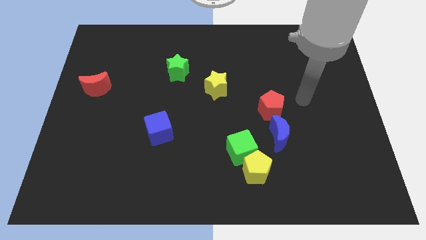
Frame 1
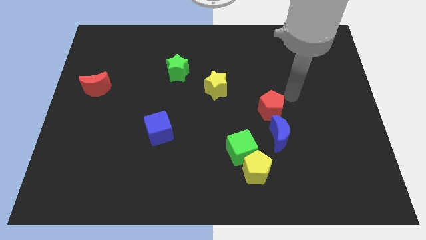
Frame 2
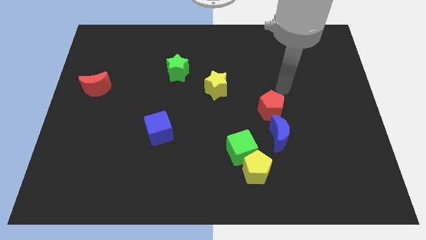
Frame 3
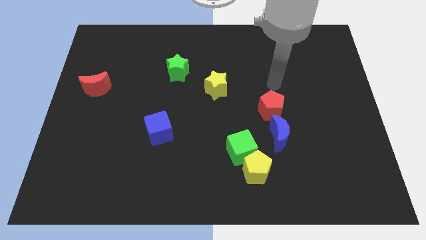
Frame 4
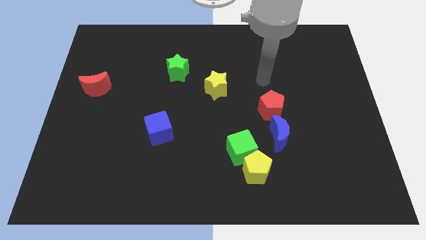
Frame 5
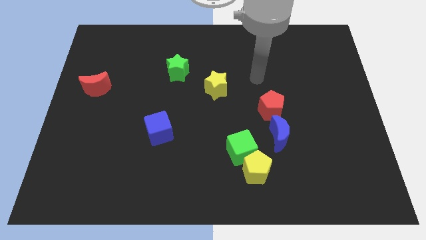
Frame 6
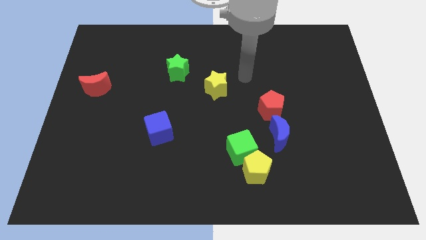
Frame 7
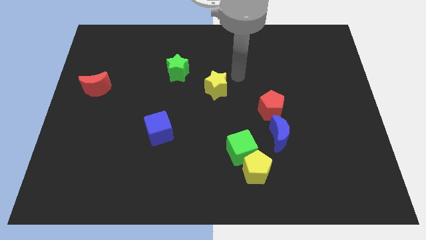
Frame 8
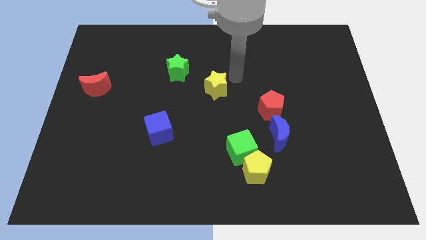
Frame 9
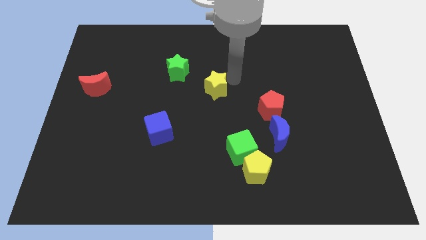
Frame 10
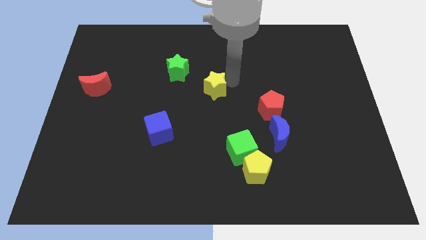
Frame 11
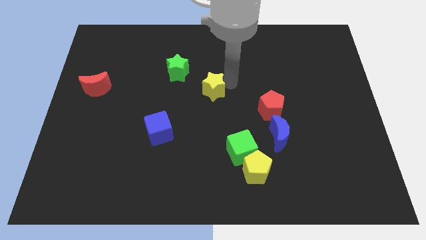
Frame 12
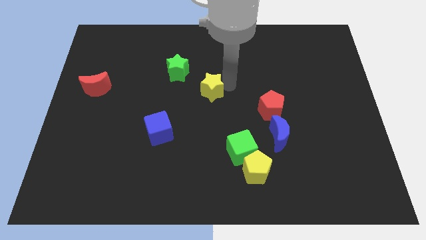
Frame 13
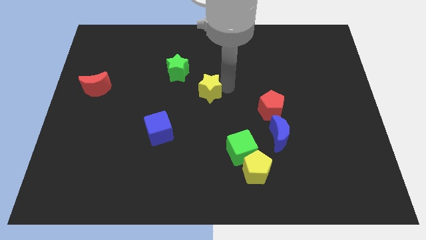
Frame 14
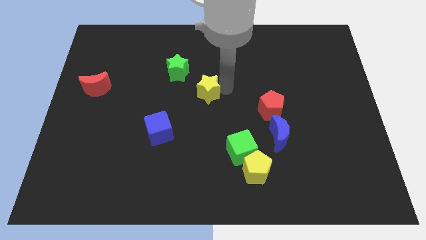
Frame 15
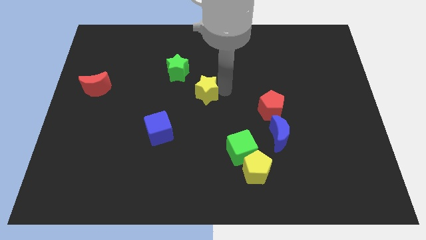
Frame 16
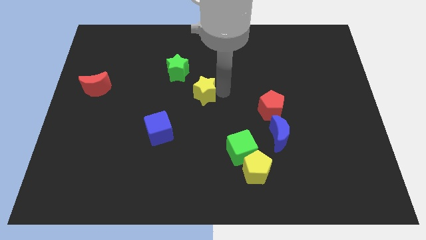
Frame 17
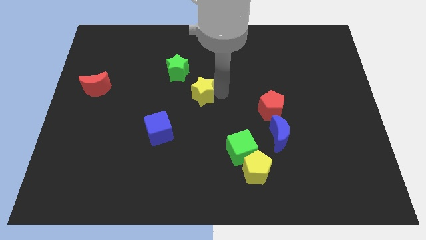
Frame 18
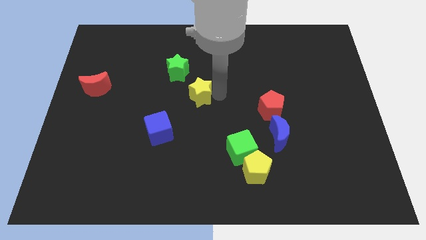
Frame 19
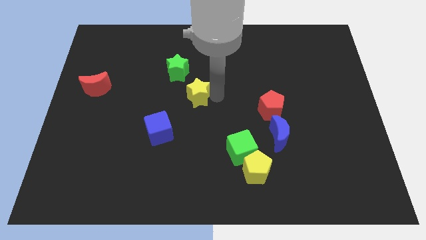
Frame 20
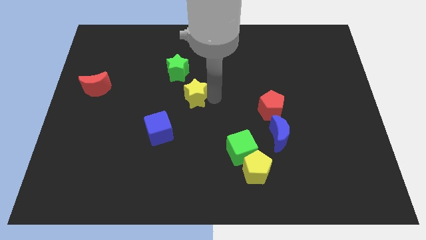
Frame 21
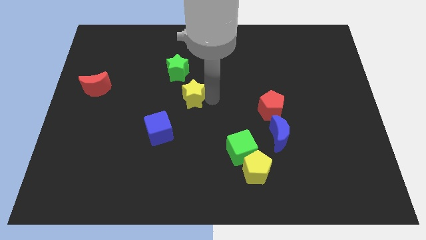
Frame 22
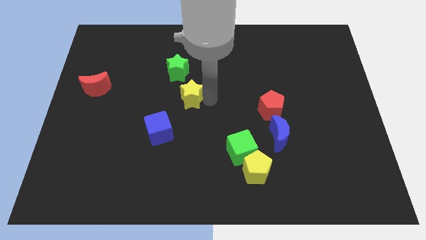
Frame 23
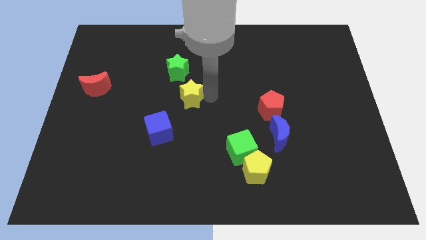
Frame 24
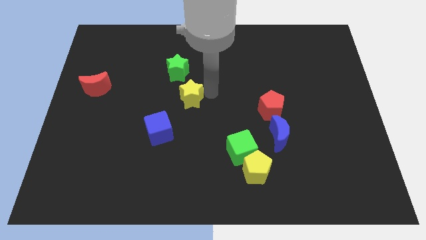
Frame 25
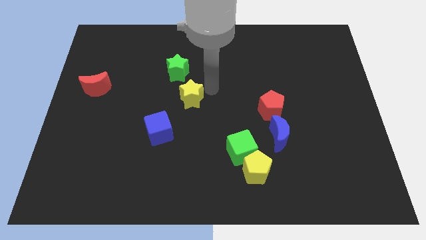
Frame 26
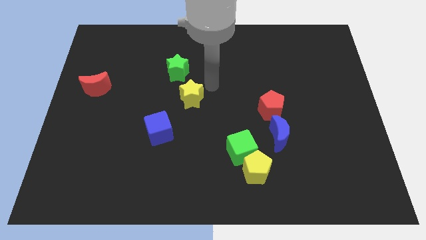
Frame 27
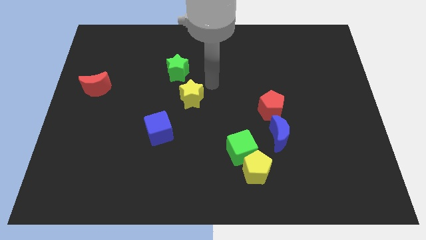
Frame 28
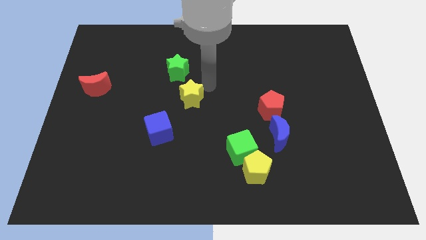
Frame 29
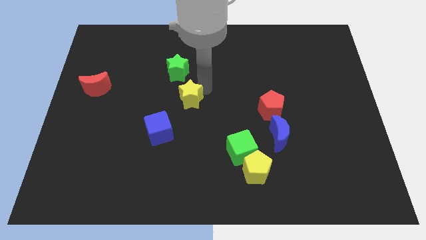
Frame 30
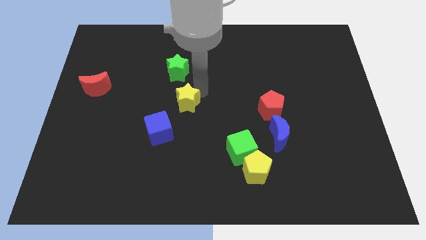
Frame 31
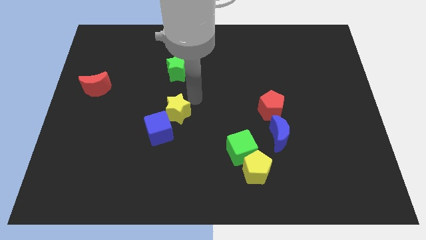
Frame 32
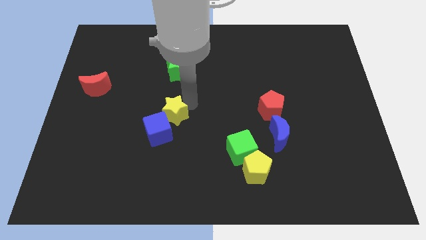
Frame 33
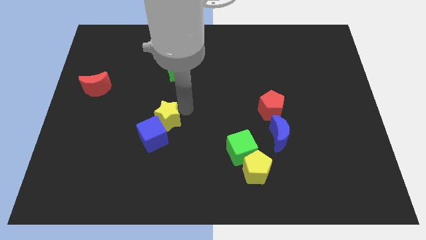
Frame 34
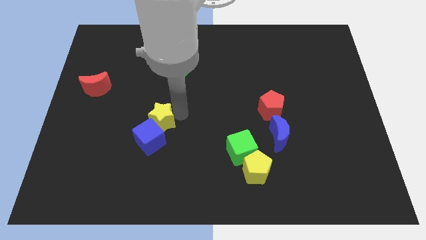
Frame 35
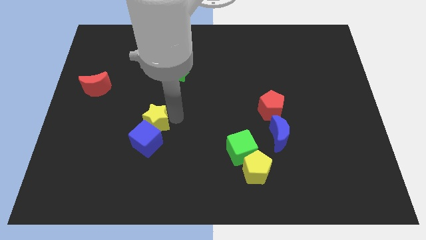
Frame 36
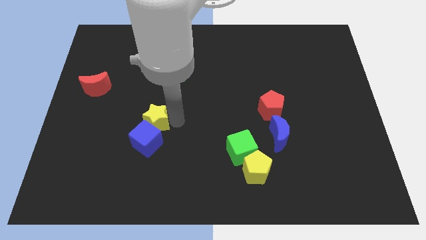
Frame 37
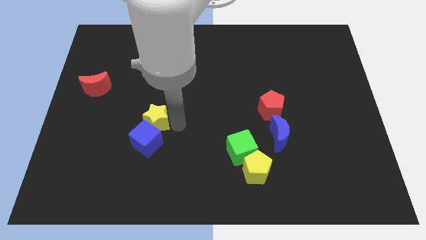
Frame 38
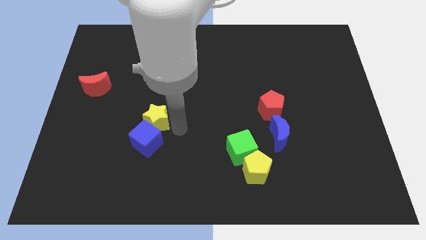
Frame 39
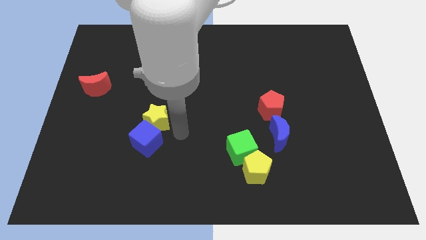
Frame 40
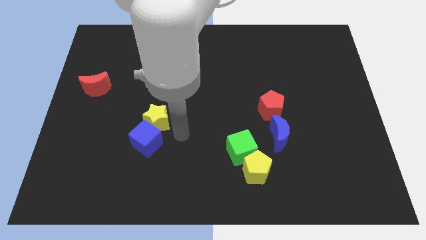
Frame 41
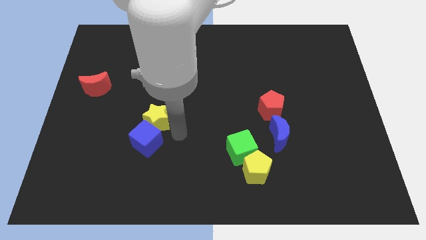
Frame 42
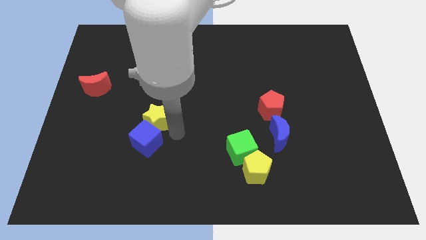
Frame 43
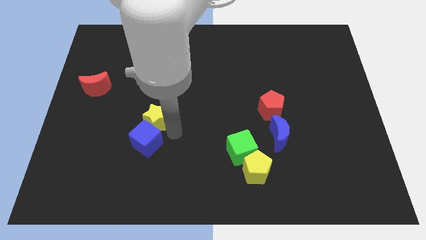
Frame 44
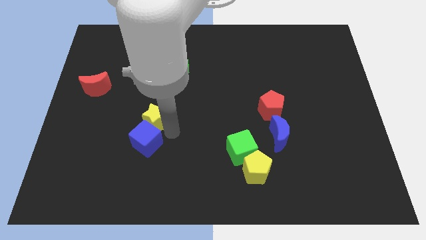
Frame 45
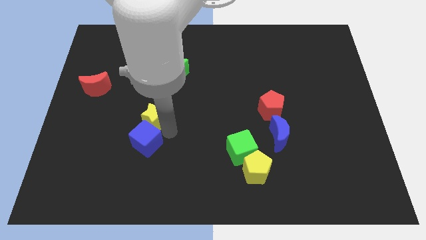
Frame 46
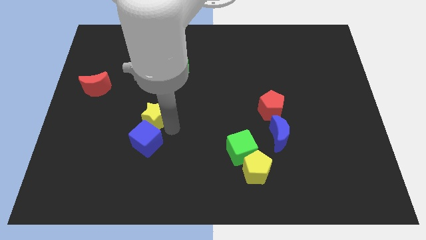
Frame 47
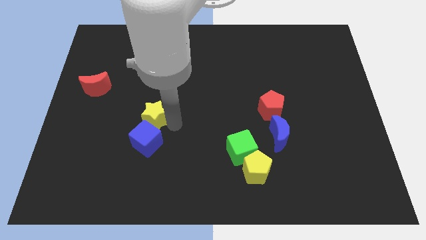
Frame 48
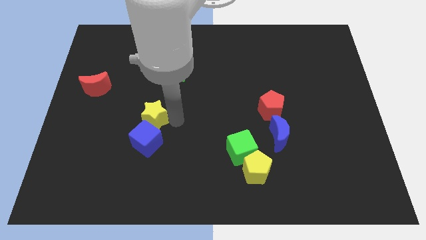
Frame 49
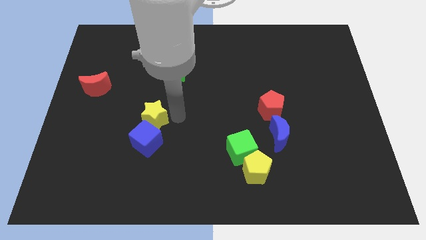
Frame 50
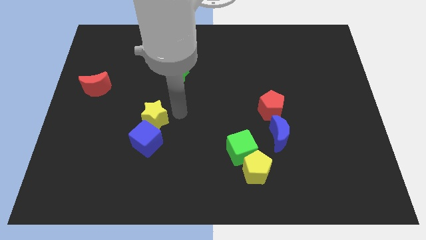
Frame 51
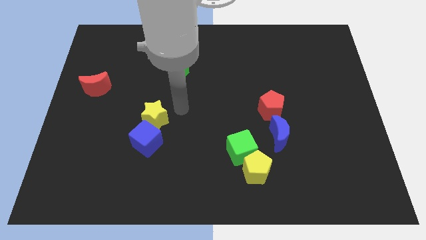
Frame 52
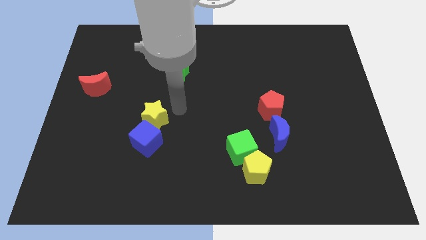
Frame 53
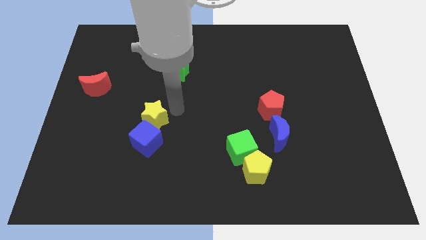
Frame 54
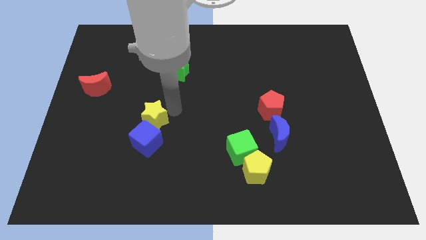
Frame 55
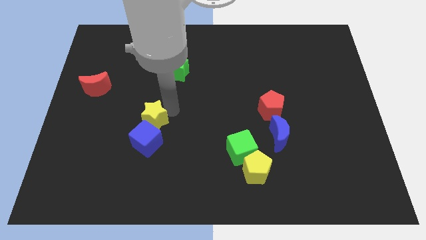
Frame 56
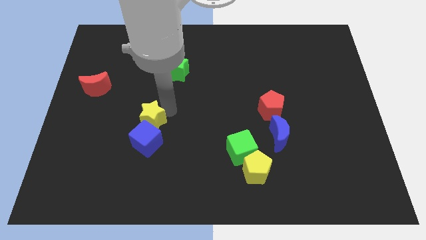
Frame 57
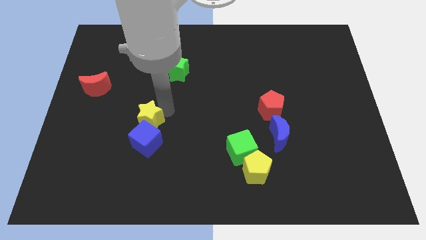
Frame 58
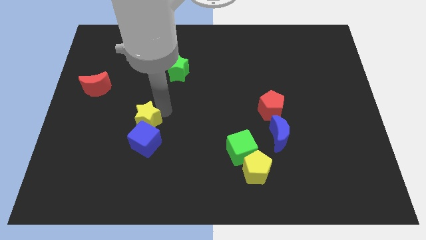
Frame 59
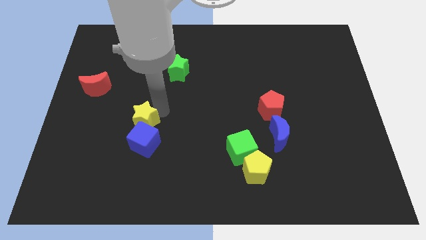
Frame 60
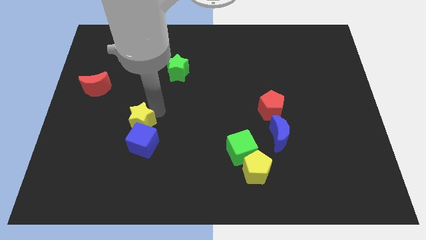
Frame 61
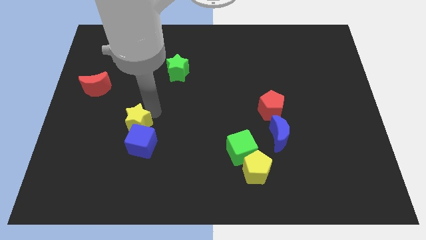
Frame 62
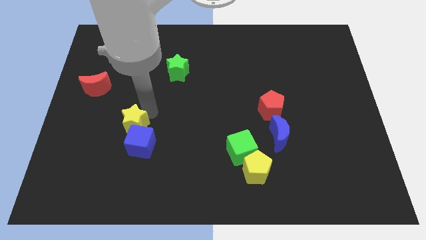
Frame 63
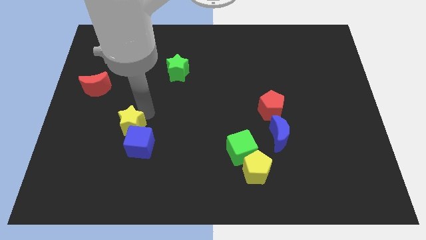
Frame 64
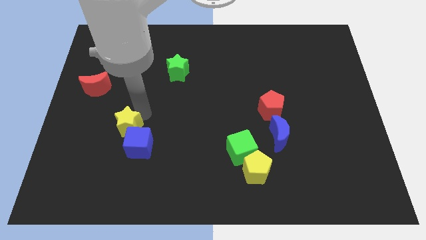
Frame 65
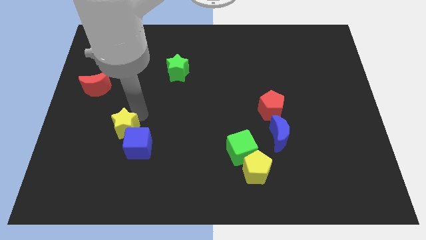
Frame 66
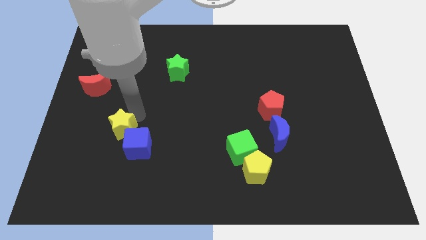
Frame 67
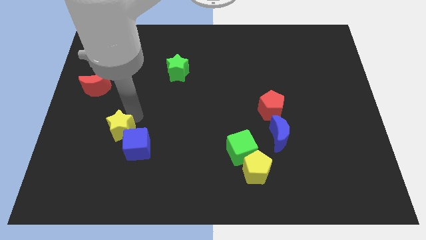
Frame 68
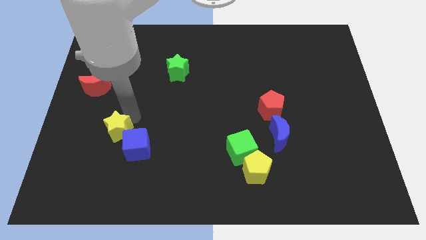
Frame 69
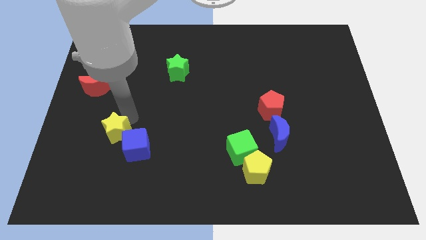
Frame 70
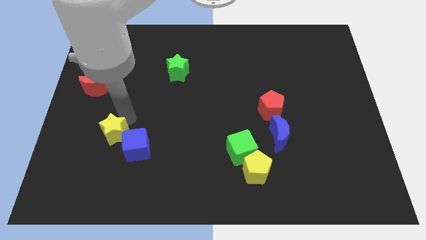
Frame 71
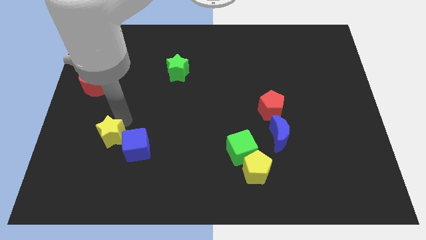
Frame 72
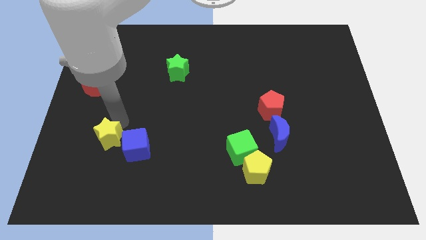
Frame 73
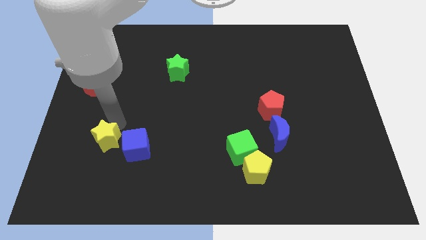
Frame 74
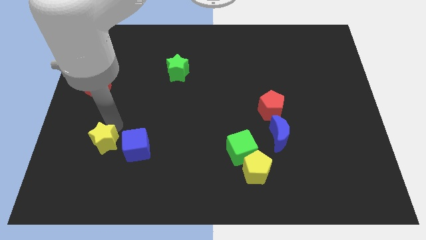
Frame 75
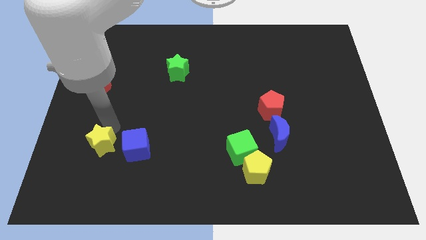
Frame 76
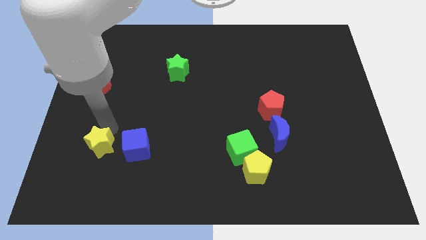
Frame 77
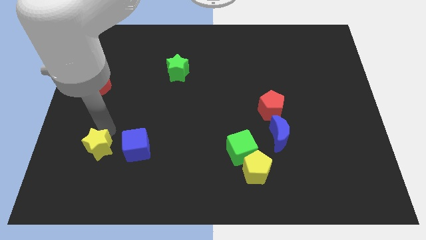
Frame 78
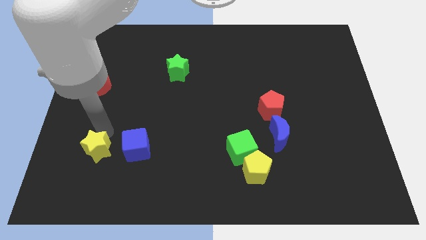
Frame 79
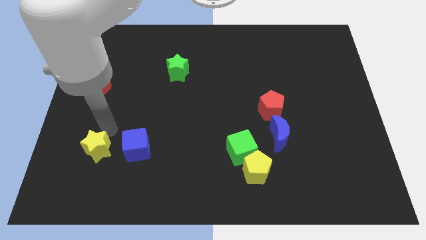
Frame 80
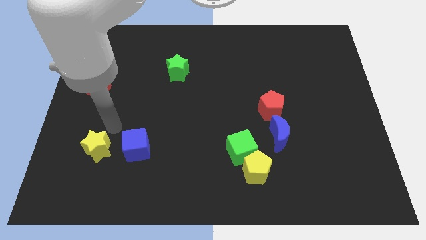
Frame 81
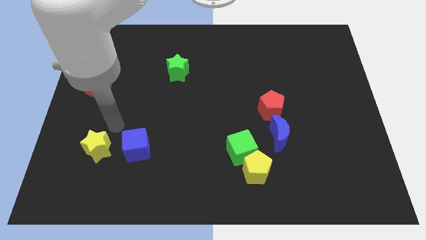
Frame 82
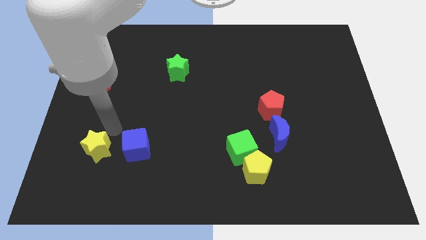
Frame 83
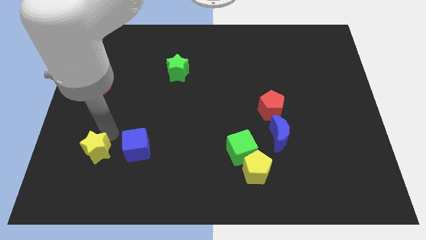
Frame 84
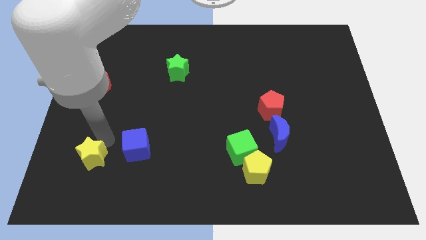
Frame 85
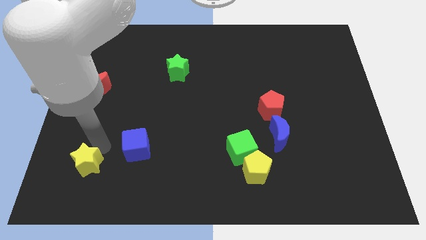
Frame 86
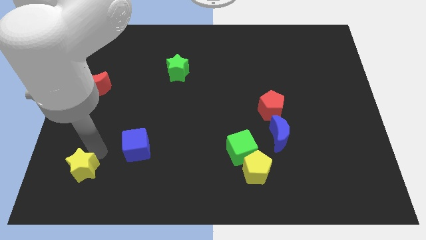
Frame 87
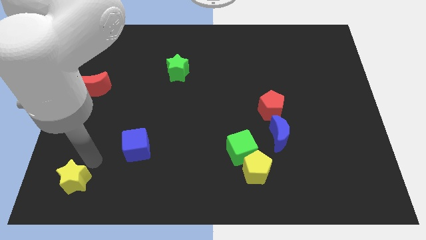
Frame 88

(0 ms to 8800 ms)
put the yellow star to the bottom left
